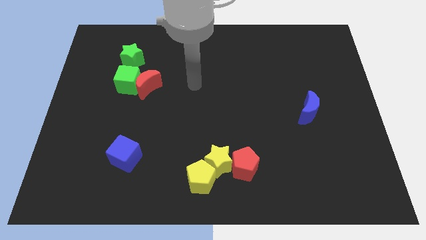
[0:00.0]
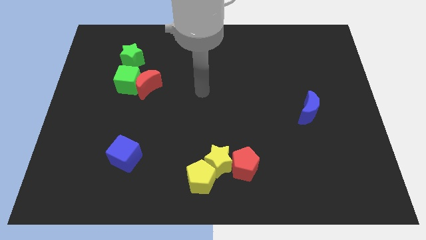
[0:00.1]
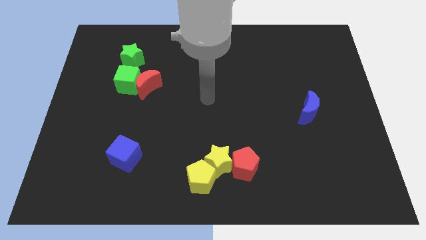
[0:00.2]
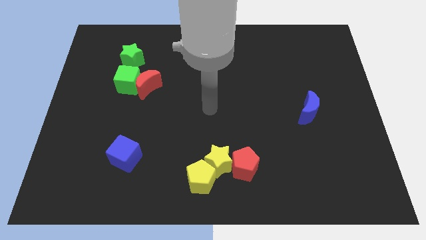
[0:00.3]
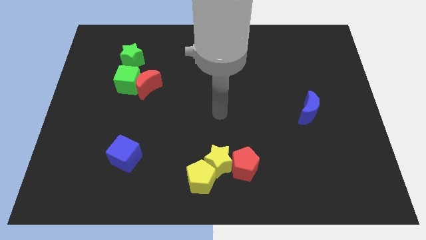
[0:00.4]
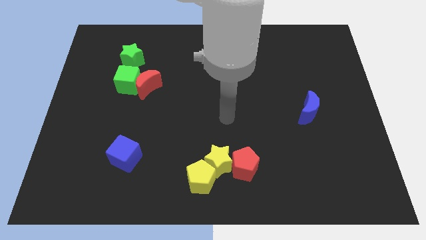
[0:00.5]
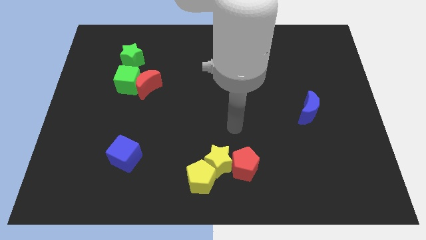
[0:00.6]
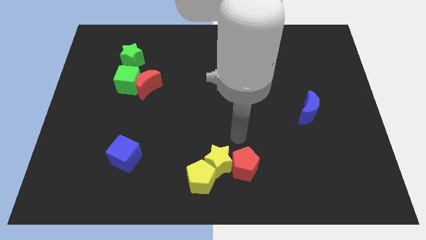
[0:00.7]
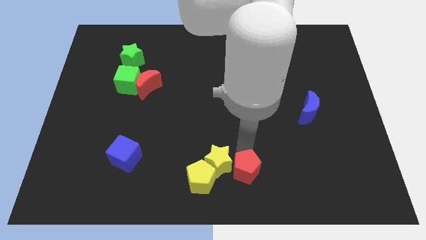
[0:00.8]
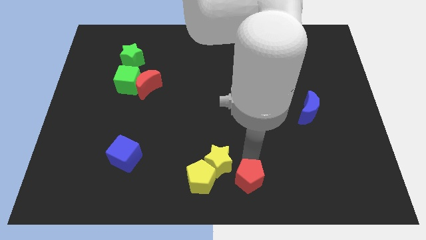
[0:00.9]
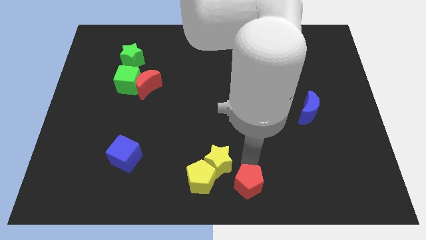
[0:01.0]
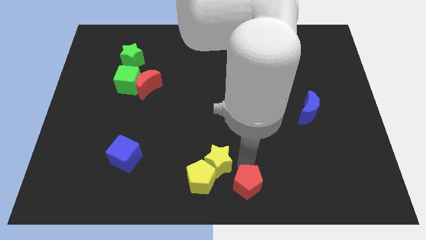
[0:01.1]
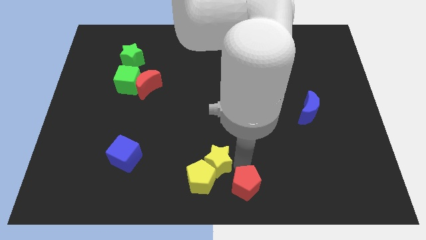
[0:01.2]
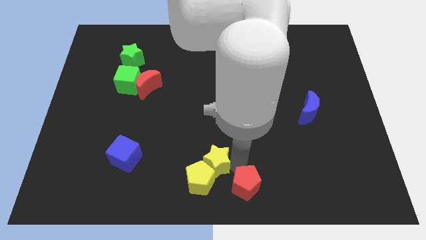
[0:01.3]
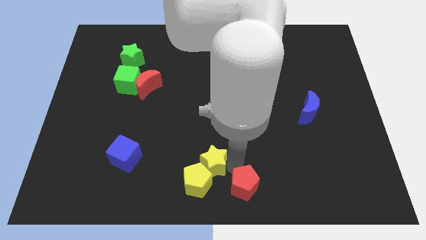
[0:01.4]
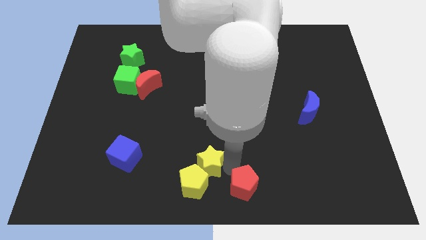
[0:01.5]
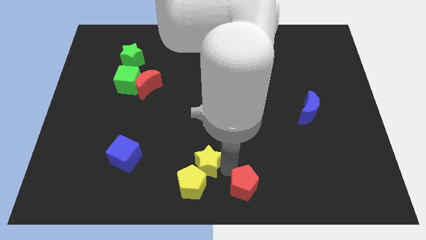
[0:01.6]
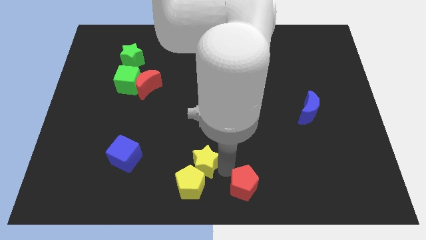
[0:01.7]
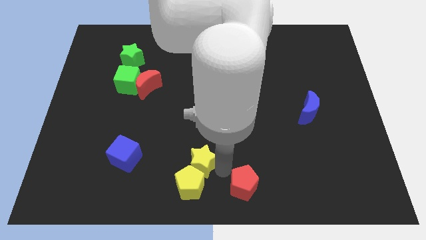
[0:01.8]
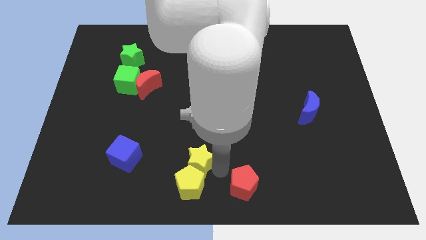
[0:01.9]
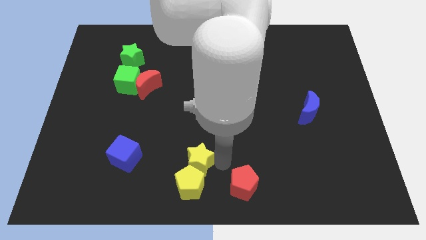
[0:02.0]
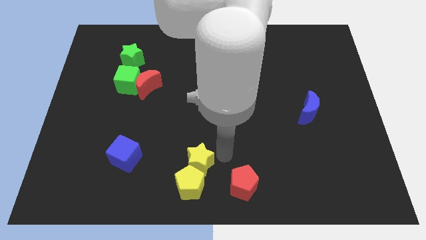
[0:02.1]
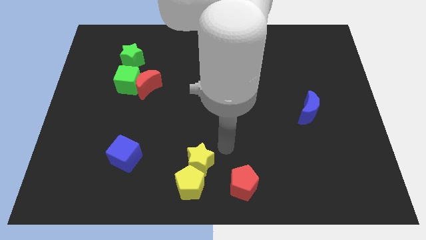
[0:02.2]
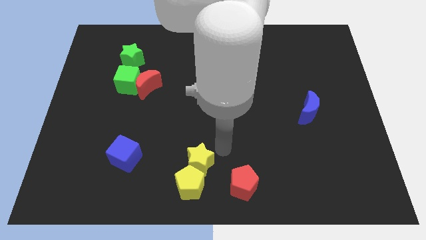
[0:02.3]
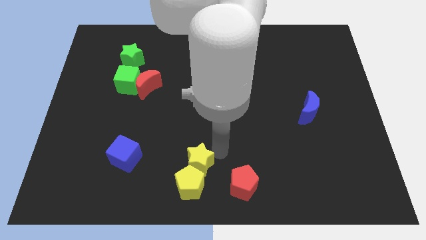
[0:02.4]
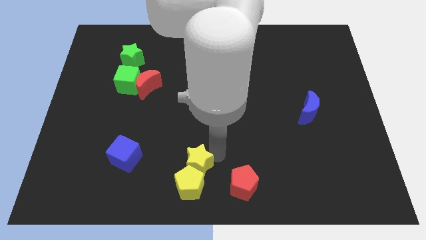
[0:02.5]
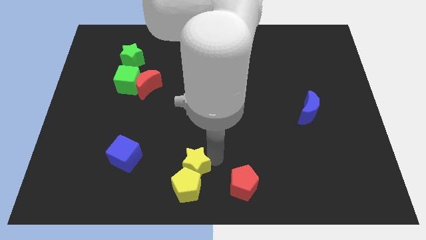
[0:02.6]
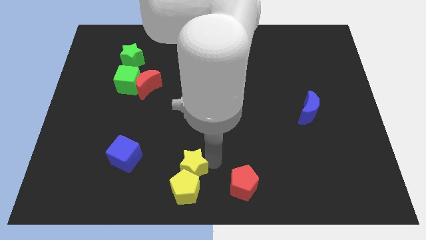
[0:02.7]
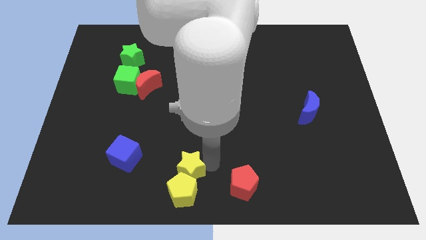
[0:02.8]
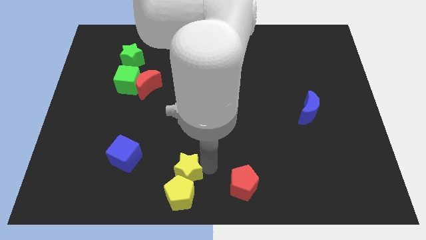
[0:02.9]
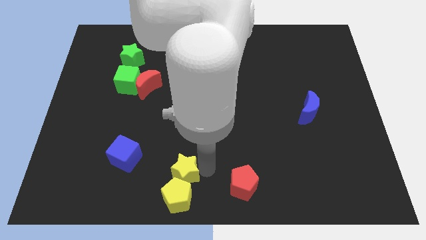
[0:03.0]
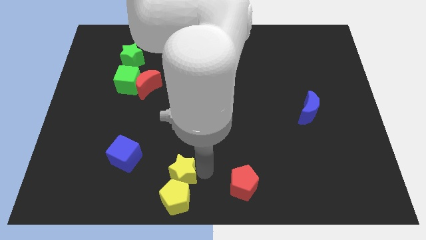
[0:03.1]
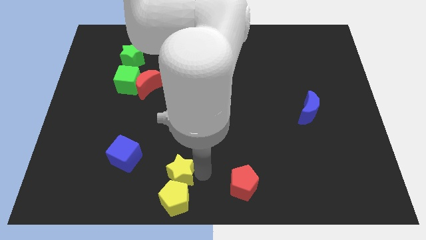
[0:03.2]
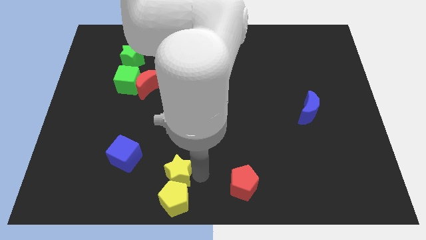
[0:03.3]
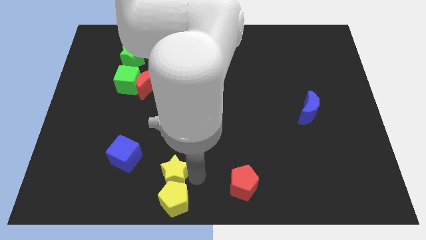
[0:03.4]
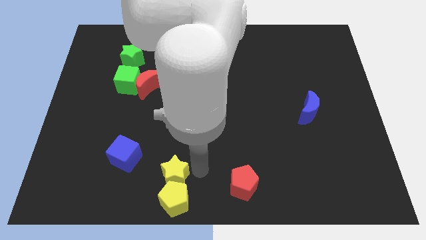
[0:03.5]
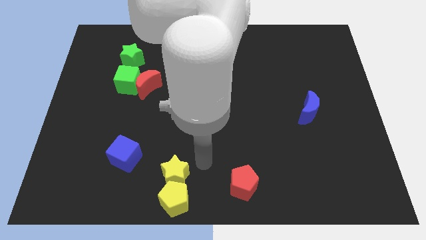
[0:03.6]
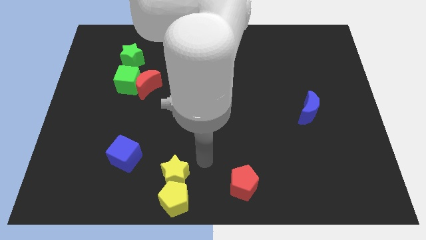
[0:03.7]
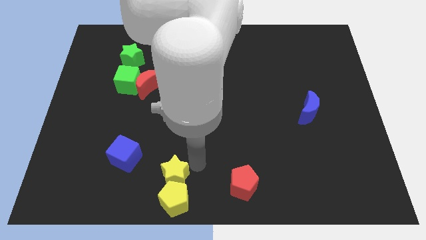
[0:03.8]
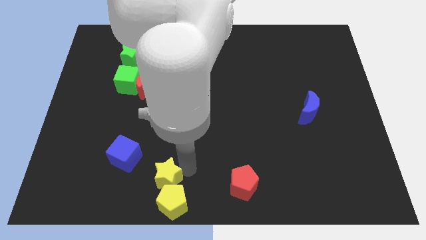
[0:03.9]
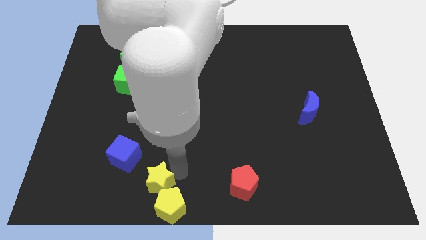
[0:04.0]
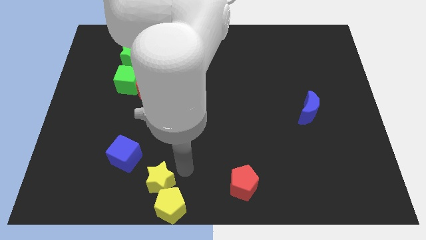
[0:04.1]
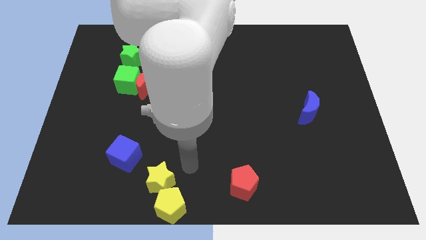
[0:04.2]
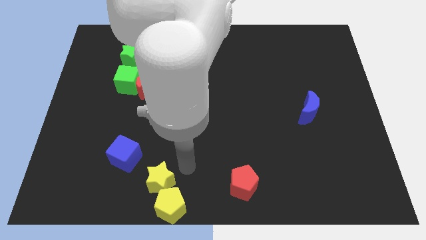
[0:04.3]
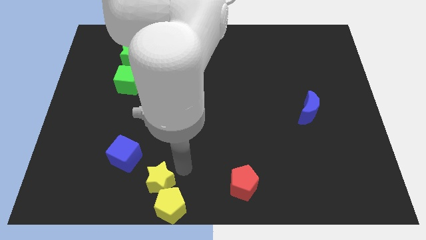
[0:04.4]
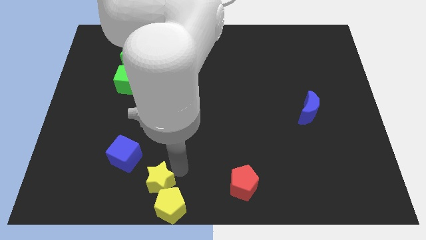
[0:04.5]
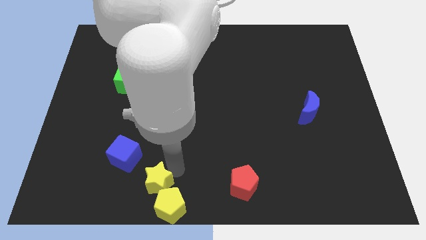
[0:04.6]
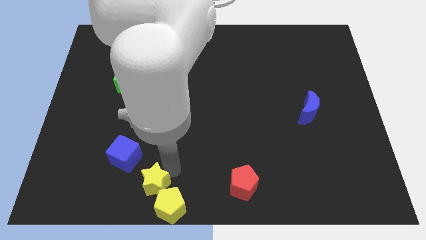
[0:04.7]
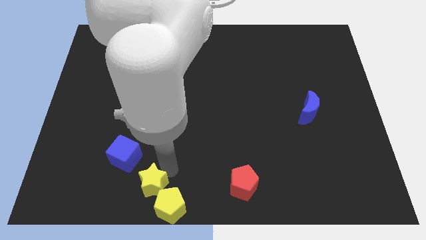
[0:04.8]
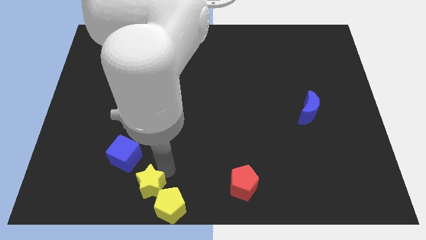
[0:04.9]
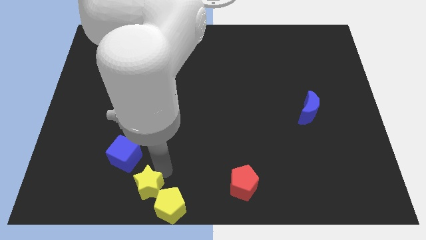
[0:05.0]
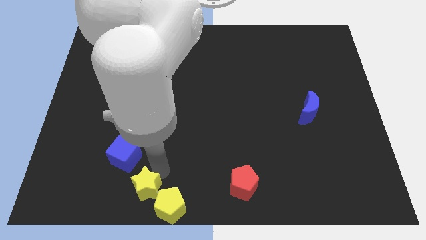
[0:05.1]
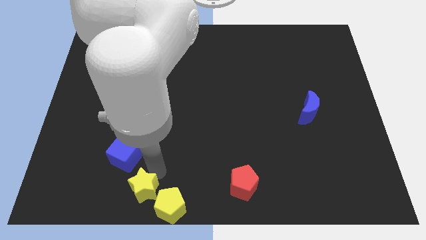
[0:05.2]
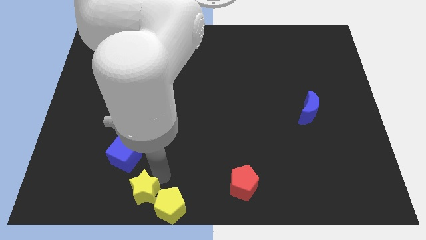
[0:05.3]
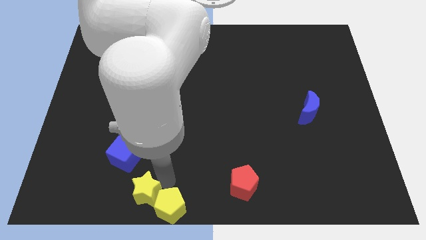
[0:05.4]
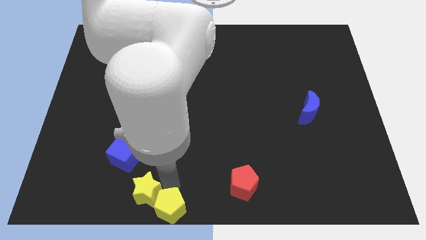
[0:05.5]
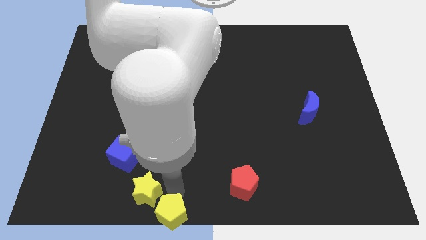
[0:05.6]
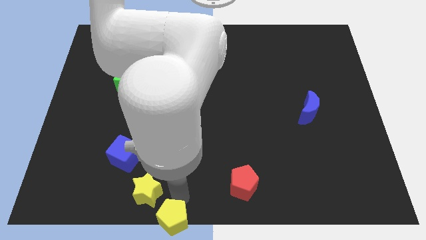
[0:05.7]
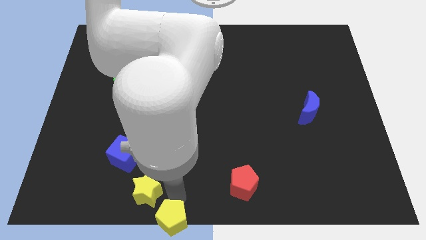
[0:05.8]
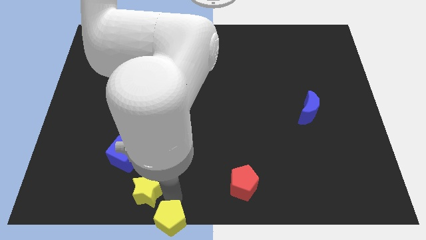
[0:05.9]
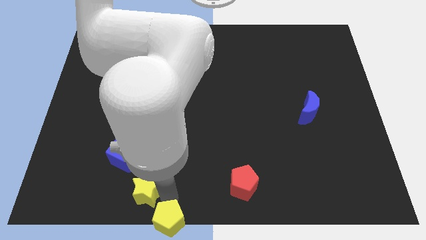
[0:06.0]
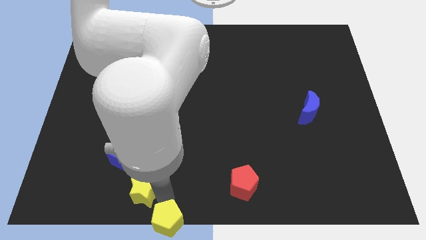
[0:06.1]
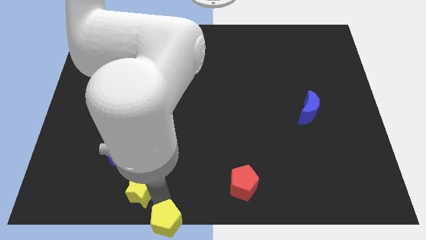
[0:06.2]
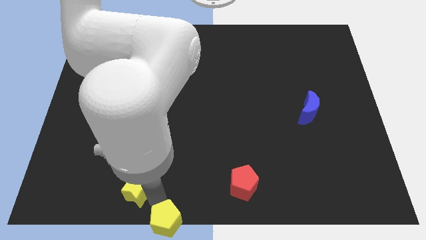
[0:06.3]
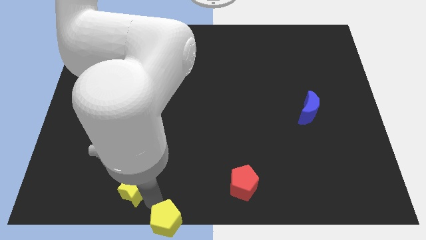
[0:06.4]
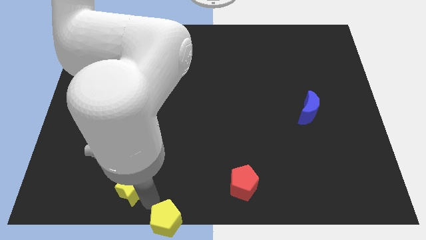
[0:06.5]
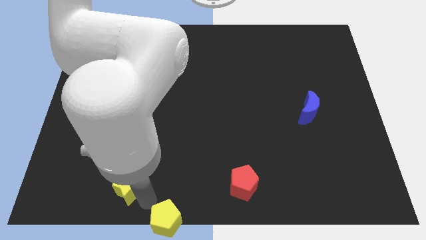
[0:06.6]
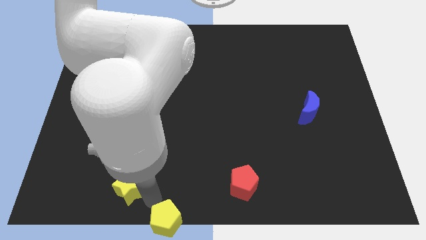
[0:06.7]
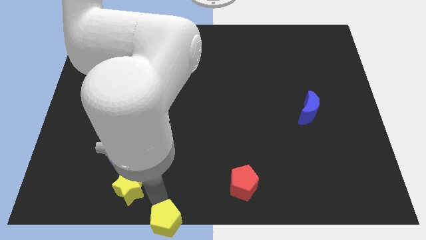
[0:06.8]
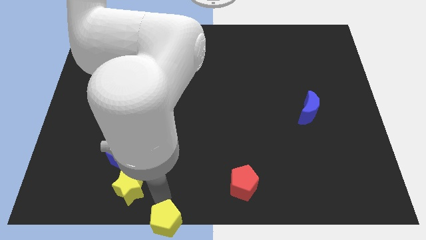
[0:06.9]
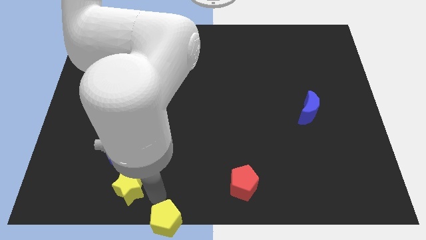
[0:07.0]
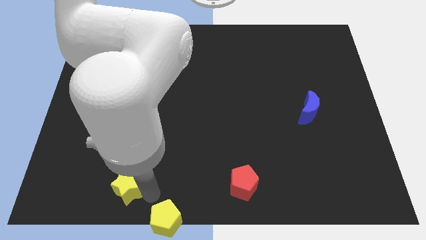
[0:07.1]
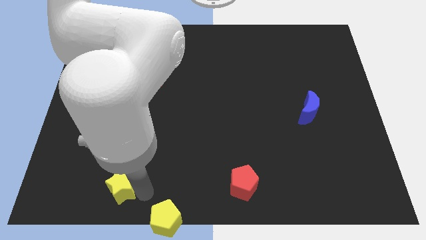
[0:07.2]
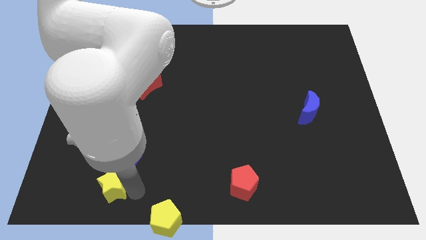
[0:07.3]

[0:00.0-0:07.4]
move the yellow star to the bottom left of the blue cube
